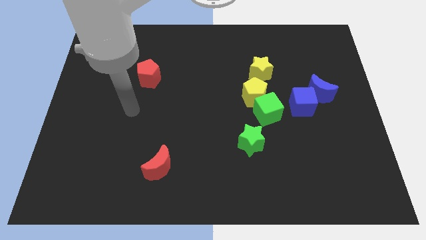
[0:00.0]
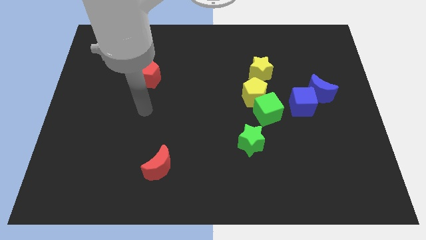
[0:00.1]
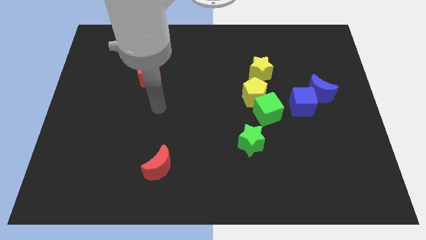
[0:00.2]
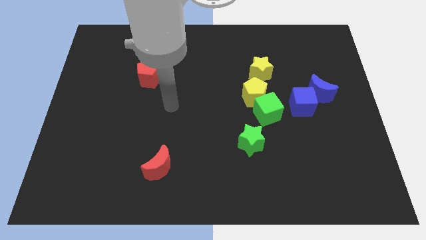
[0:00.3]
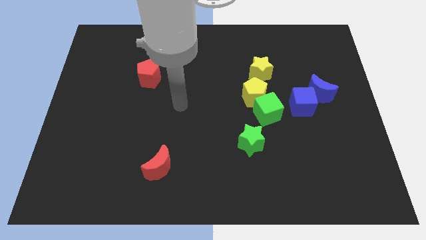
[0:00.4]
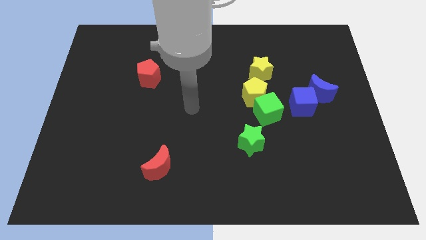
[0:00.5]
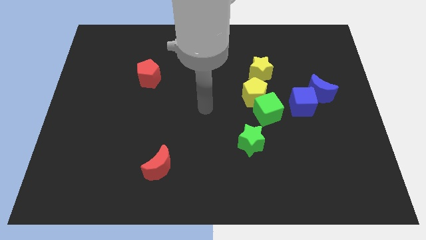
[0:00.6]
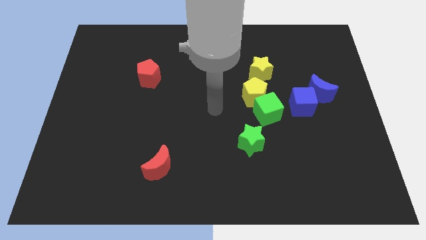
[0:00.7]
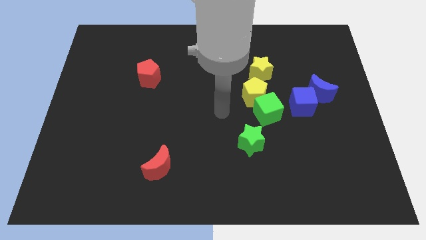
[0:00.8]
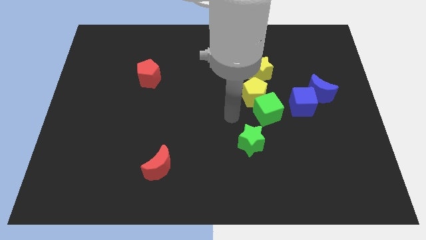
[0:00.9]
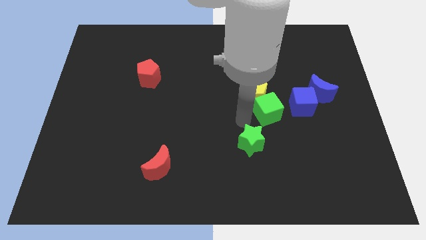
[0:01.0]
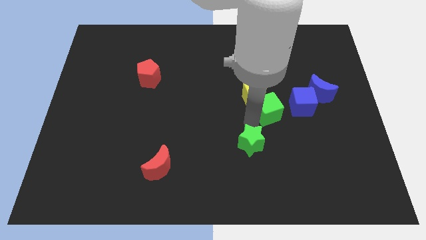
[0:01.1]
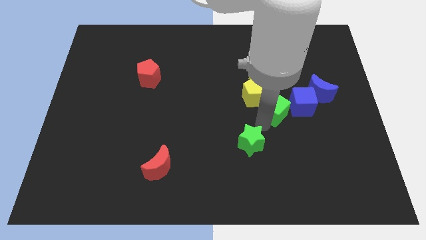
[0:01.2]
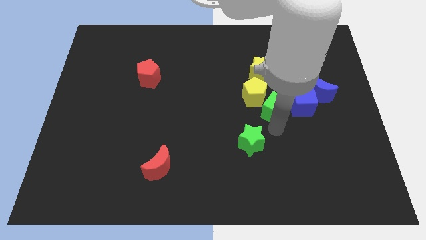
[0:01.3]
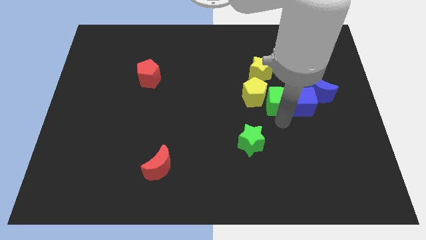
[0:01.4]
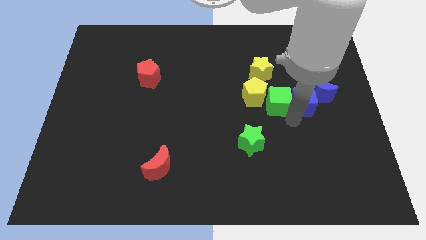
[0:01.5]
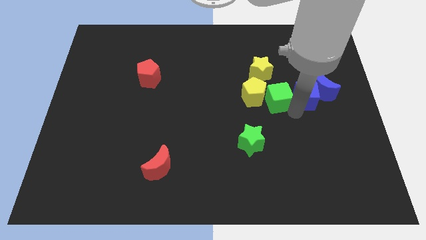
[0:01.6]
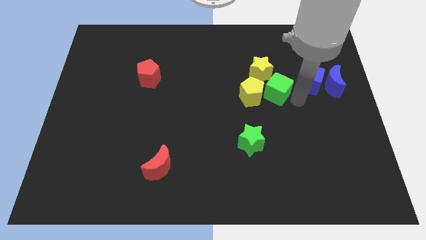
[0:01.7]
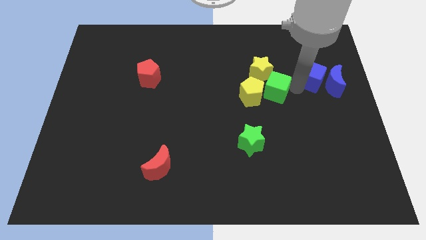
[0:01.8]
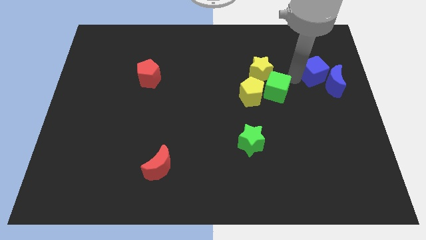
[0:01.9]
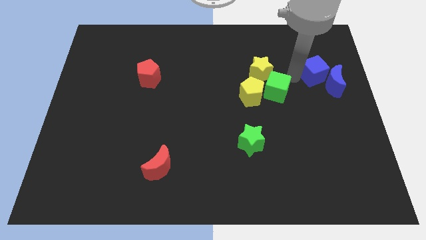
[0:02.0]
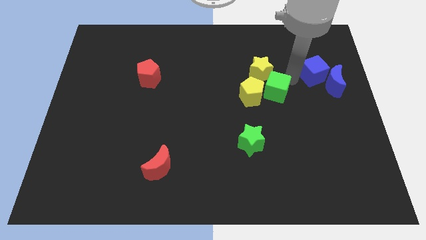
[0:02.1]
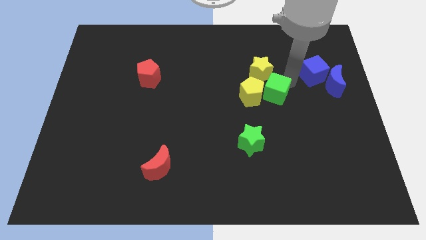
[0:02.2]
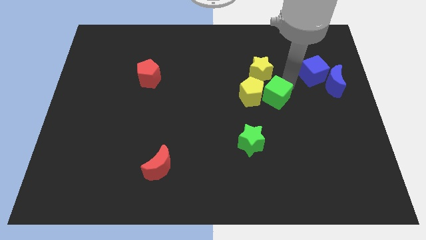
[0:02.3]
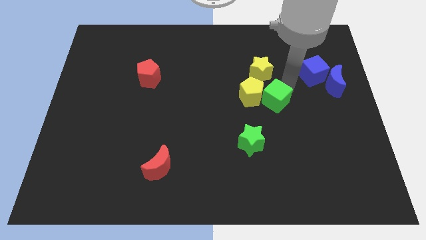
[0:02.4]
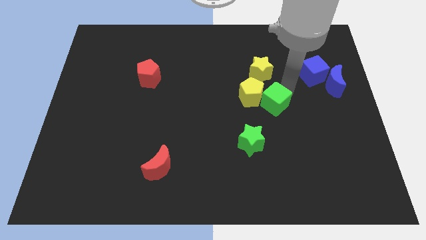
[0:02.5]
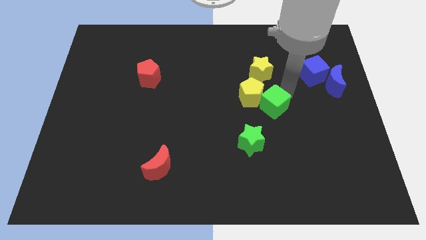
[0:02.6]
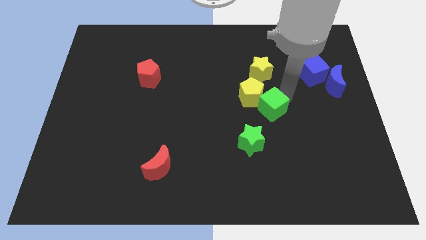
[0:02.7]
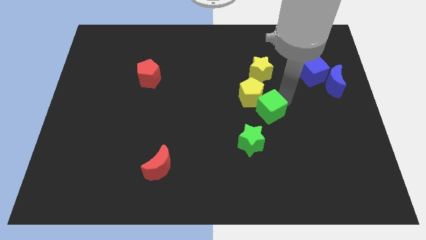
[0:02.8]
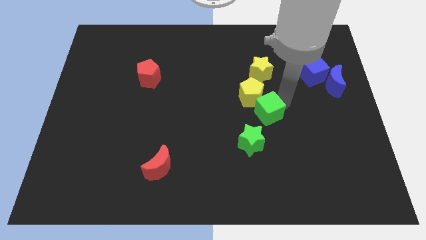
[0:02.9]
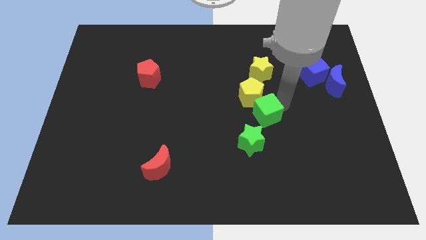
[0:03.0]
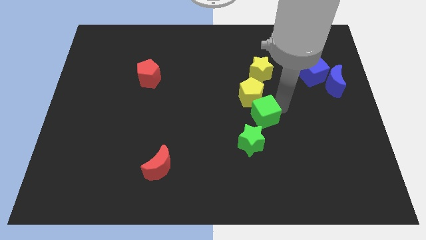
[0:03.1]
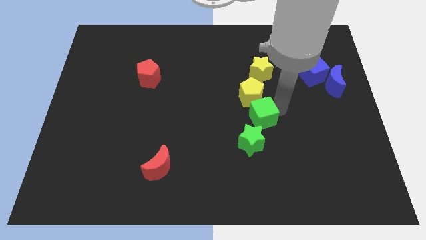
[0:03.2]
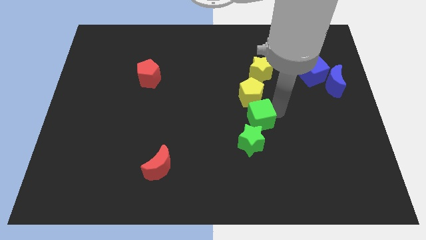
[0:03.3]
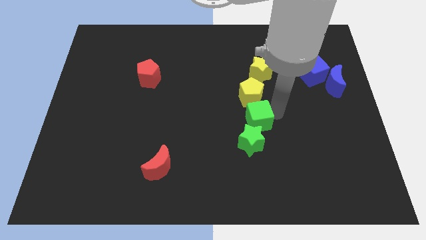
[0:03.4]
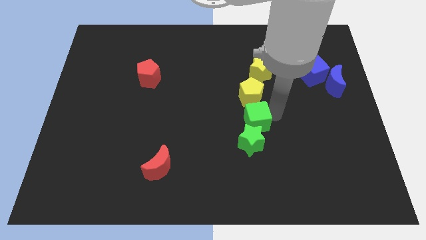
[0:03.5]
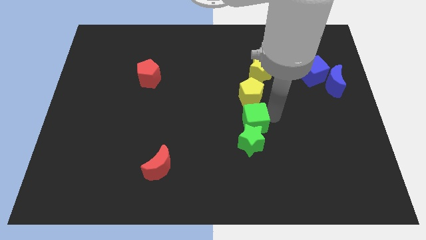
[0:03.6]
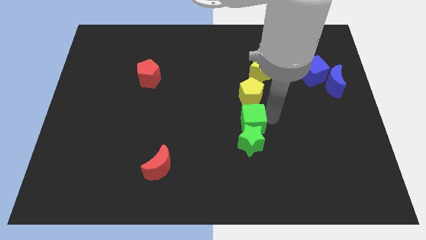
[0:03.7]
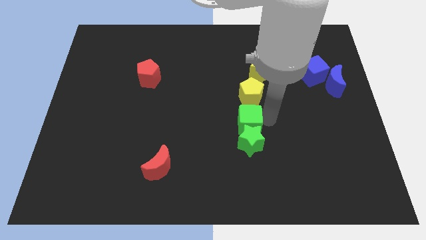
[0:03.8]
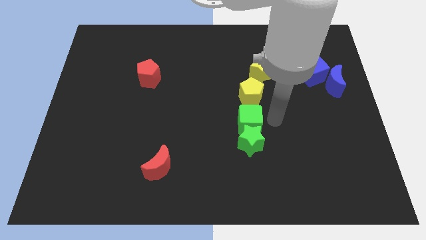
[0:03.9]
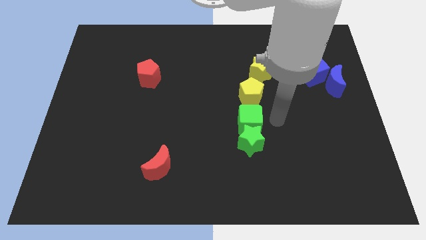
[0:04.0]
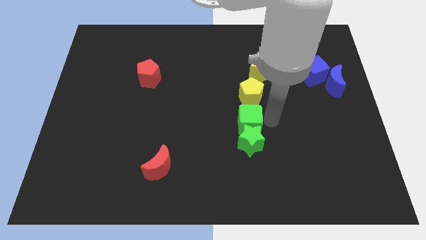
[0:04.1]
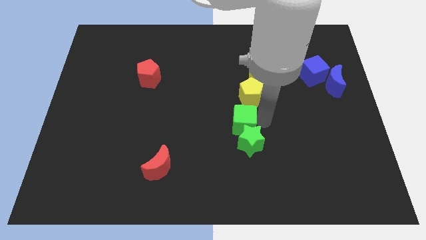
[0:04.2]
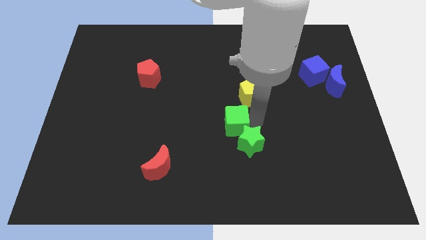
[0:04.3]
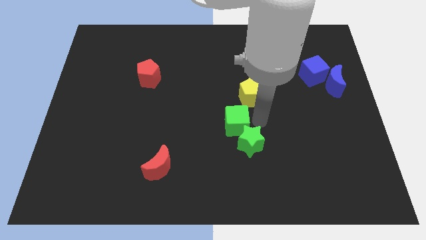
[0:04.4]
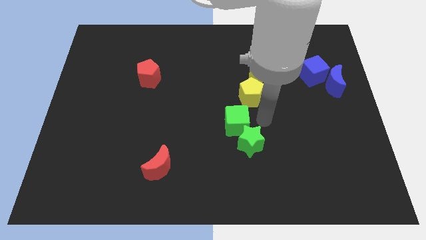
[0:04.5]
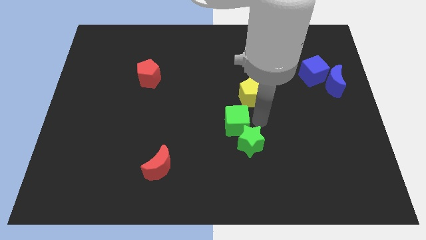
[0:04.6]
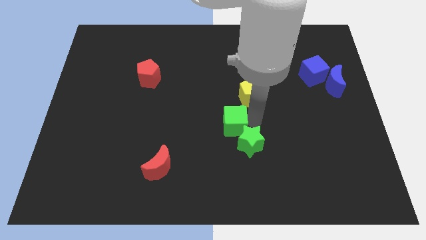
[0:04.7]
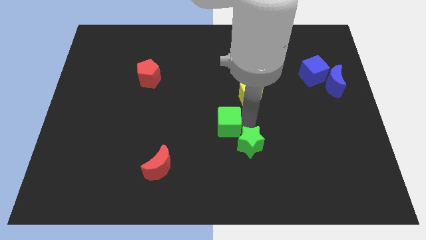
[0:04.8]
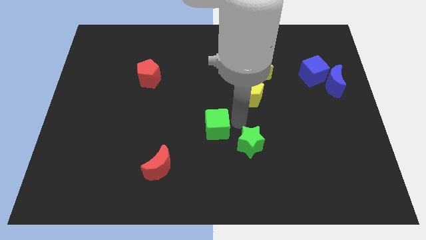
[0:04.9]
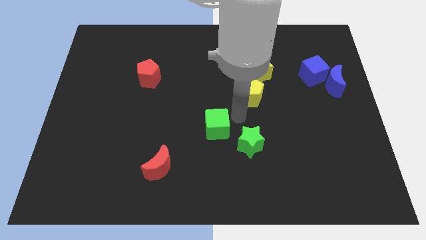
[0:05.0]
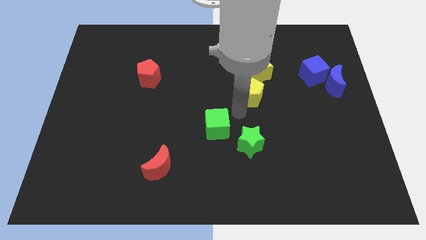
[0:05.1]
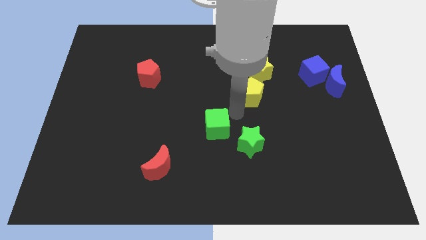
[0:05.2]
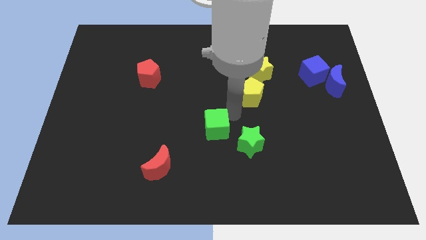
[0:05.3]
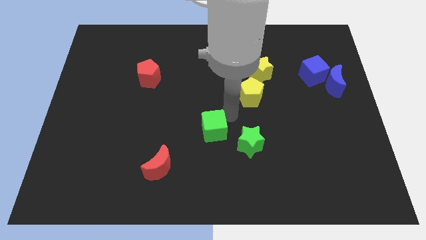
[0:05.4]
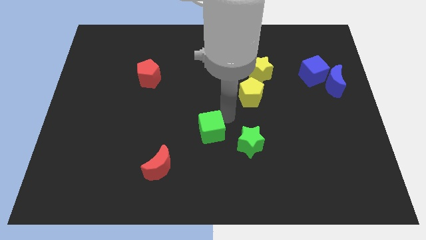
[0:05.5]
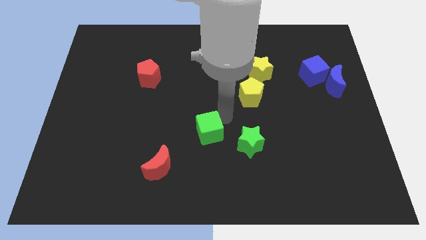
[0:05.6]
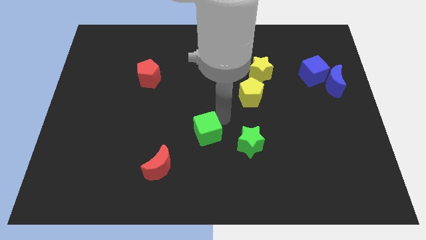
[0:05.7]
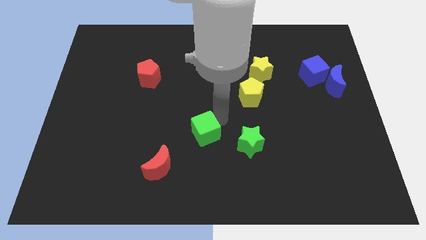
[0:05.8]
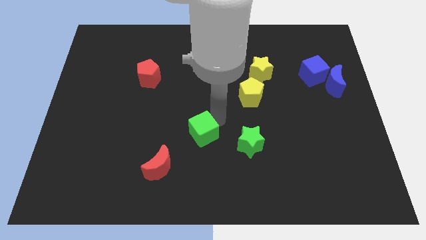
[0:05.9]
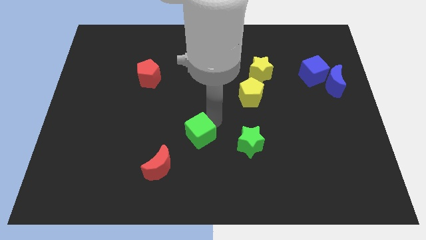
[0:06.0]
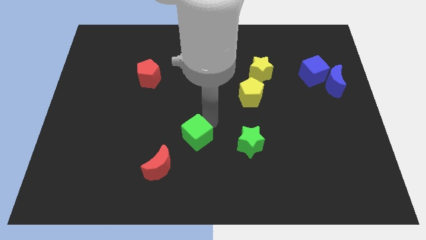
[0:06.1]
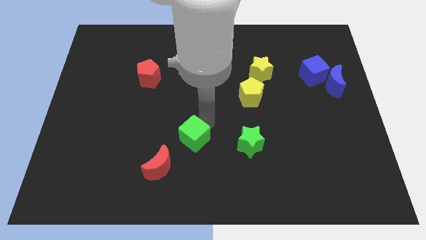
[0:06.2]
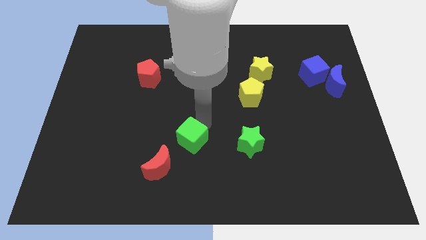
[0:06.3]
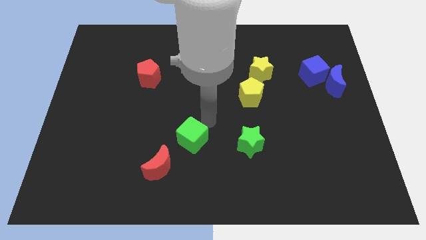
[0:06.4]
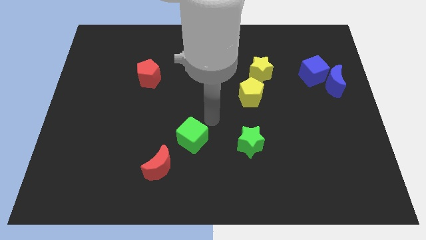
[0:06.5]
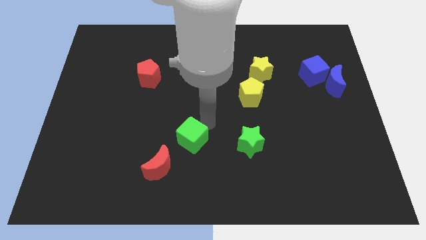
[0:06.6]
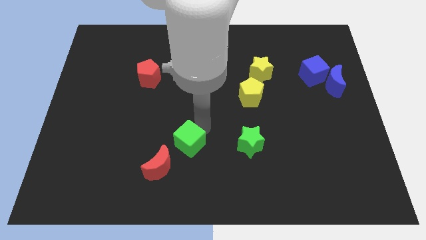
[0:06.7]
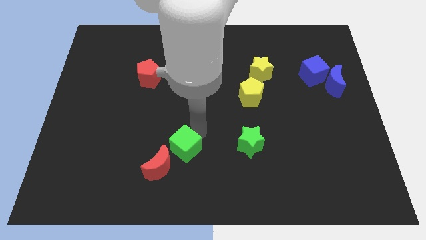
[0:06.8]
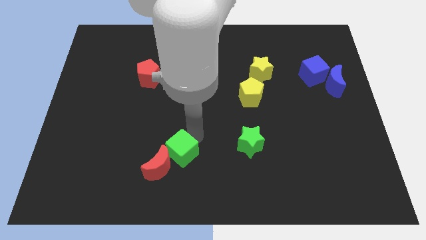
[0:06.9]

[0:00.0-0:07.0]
push the green cube to the red moon
